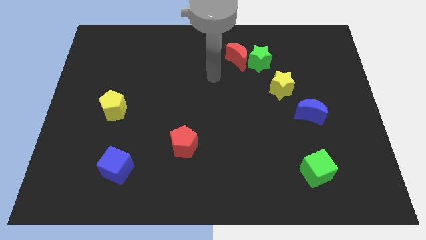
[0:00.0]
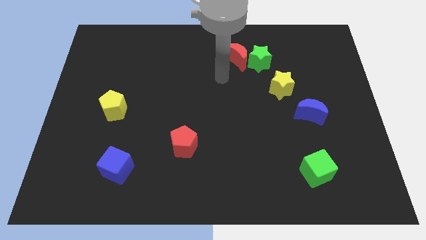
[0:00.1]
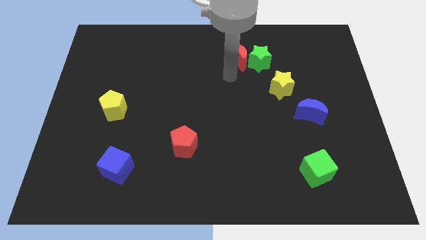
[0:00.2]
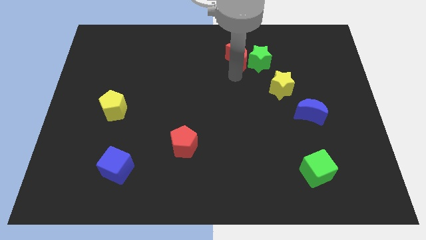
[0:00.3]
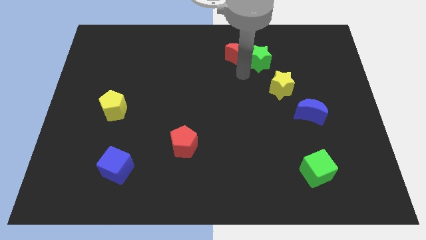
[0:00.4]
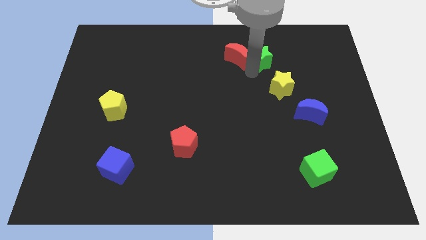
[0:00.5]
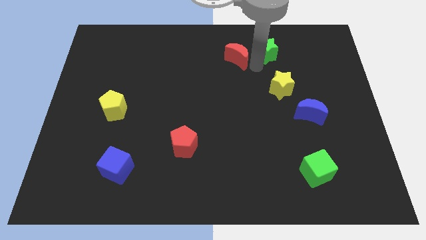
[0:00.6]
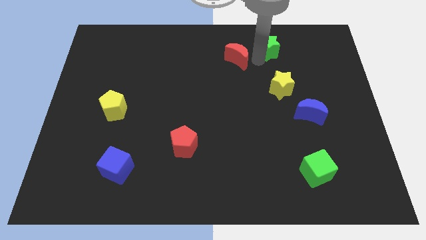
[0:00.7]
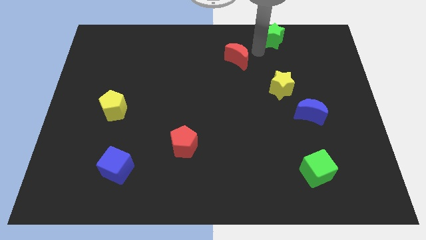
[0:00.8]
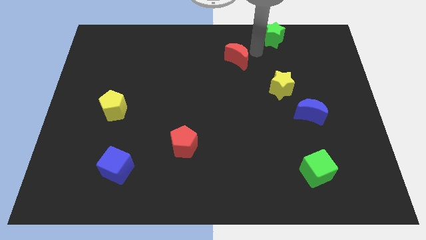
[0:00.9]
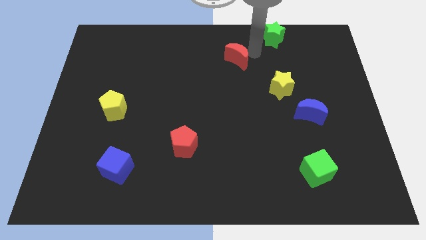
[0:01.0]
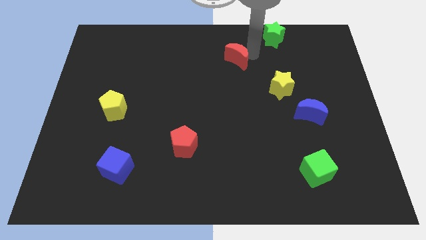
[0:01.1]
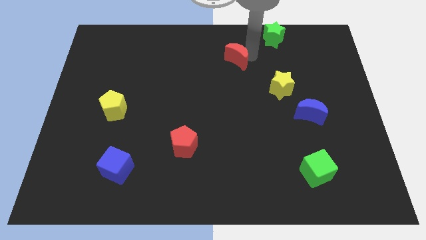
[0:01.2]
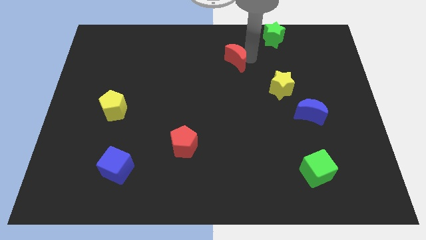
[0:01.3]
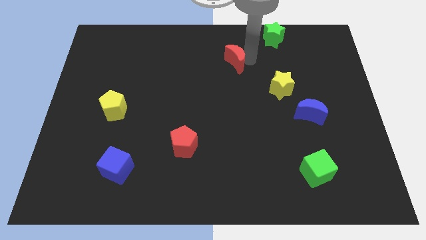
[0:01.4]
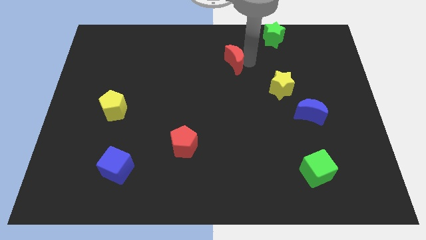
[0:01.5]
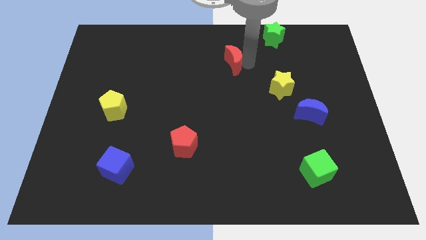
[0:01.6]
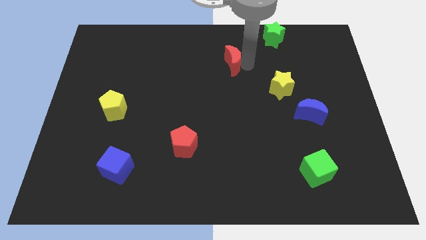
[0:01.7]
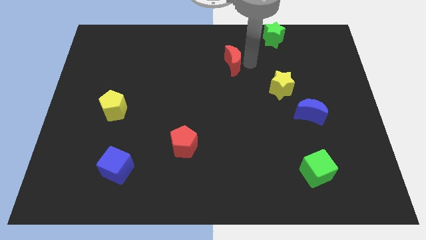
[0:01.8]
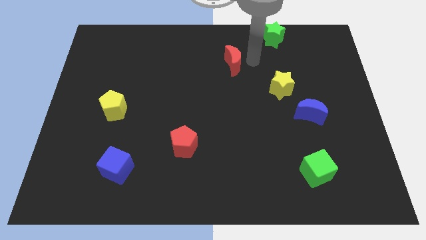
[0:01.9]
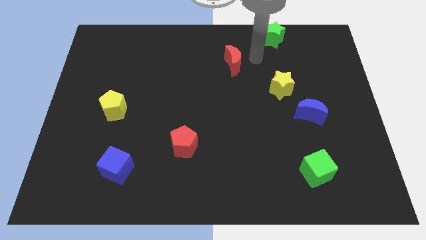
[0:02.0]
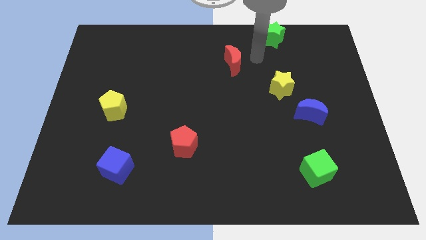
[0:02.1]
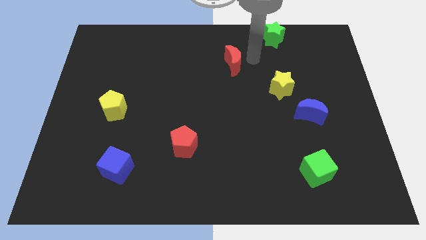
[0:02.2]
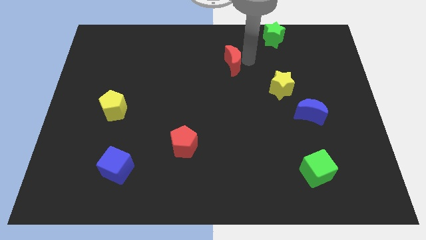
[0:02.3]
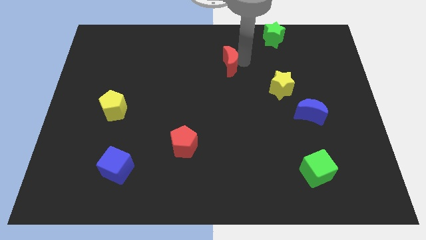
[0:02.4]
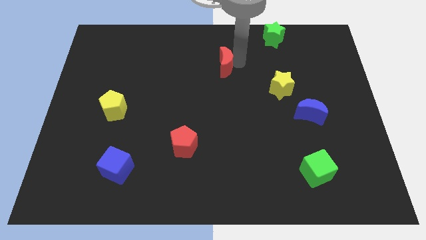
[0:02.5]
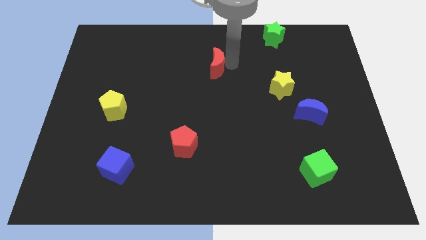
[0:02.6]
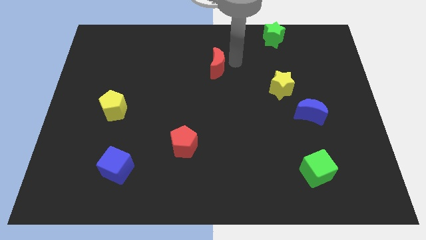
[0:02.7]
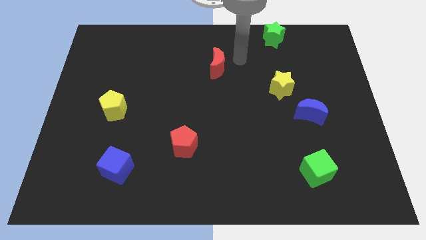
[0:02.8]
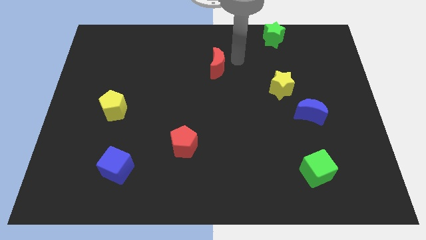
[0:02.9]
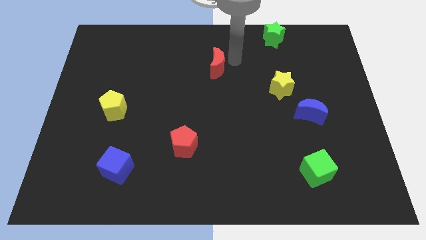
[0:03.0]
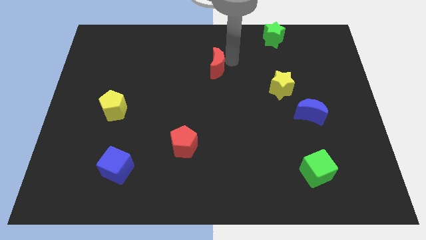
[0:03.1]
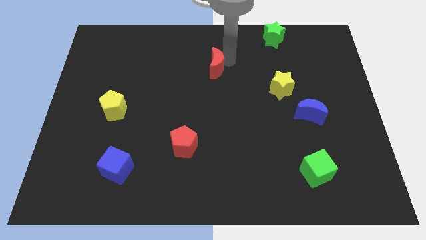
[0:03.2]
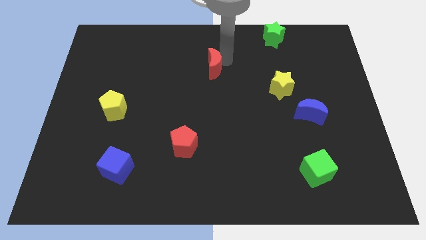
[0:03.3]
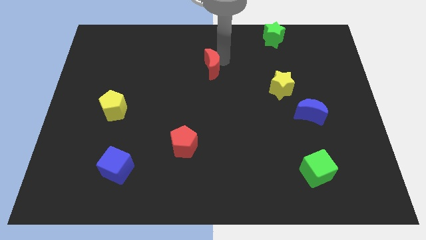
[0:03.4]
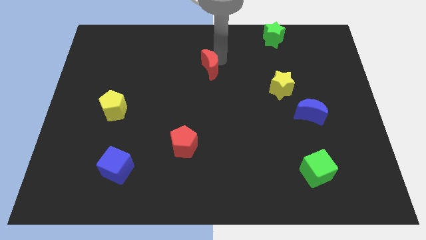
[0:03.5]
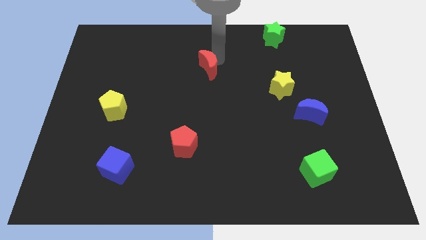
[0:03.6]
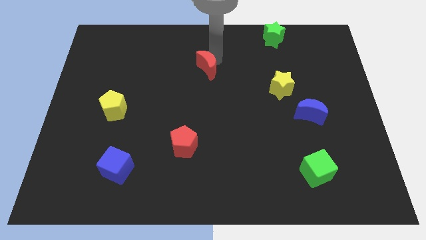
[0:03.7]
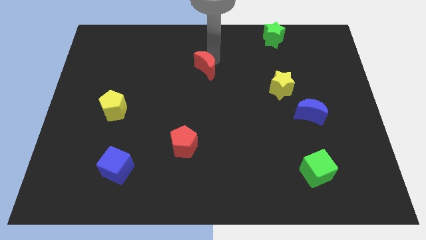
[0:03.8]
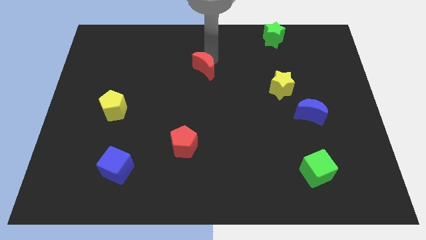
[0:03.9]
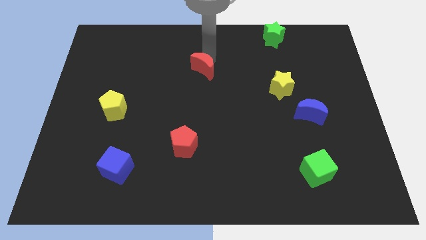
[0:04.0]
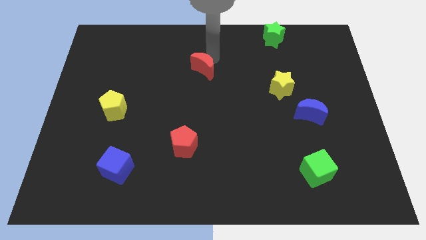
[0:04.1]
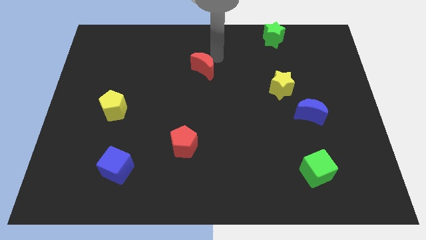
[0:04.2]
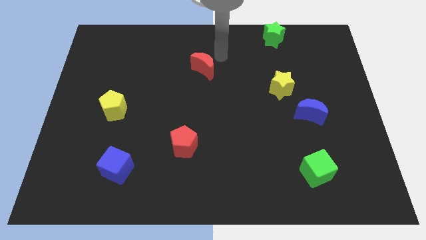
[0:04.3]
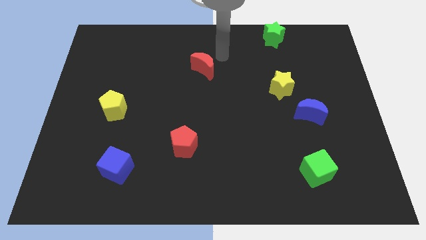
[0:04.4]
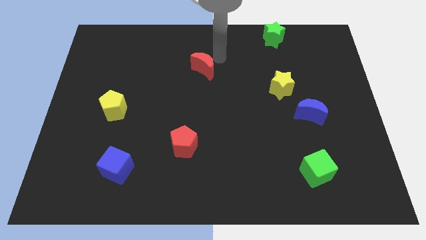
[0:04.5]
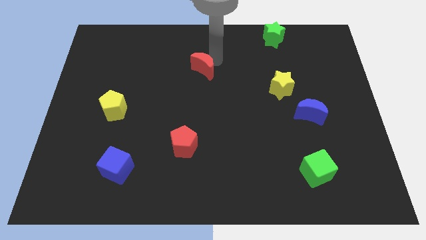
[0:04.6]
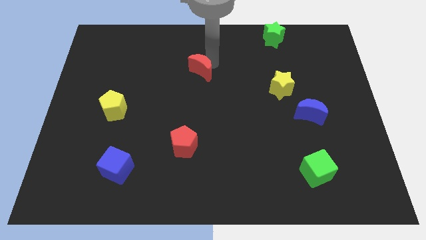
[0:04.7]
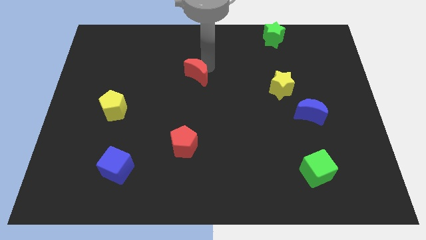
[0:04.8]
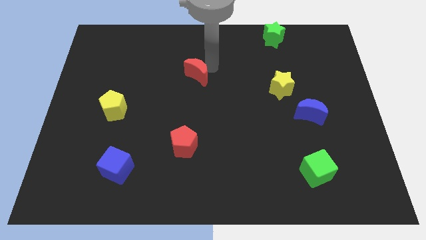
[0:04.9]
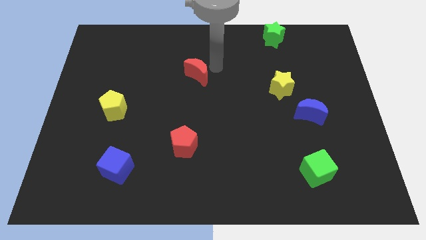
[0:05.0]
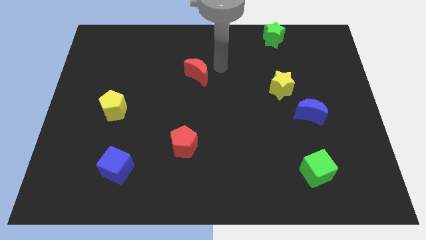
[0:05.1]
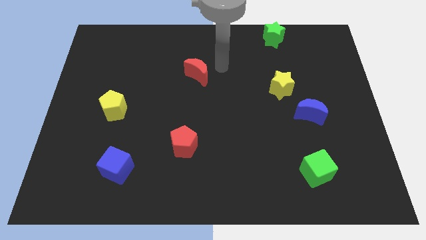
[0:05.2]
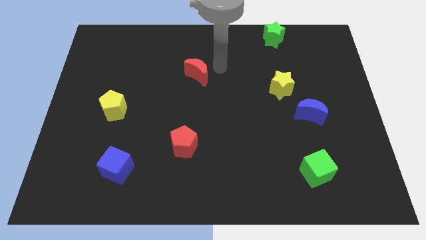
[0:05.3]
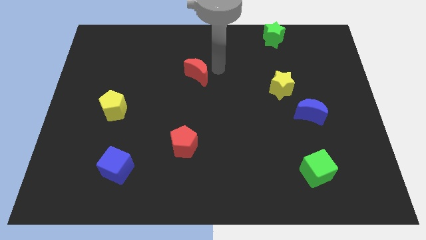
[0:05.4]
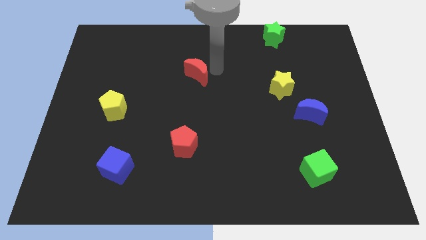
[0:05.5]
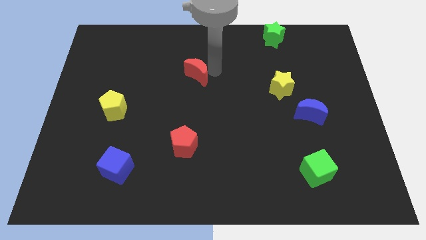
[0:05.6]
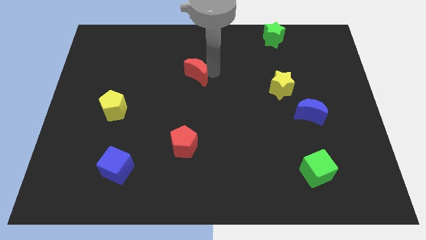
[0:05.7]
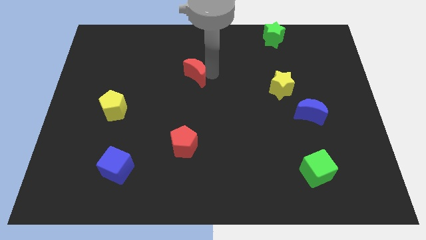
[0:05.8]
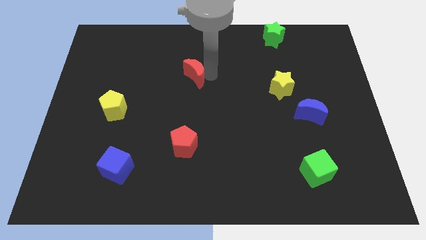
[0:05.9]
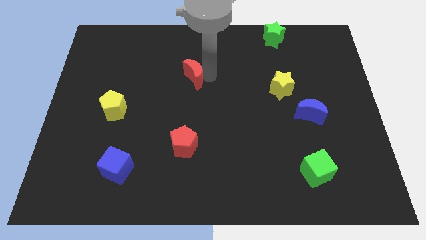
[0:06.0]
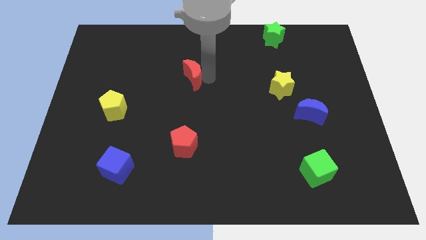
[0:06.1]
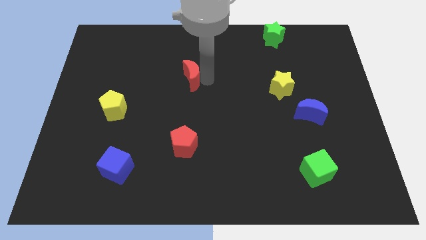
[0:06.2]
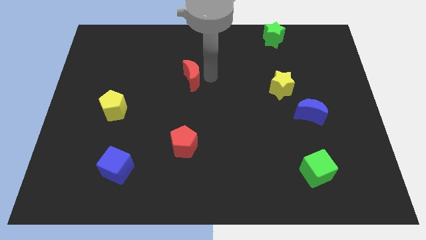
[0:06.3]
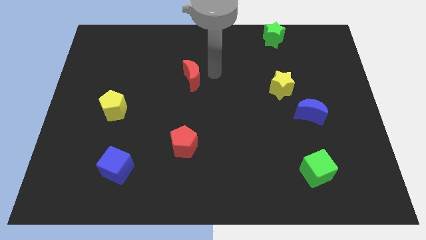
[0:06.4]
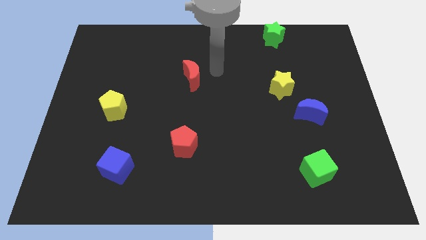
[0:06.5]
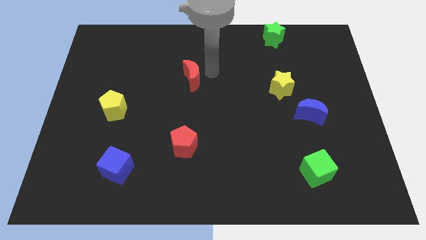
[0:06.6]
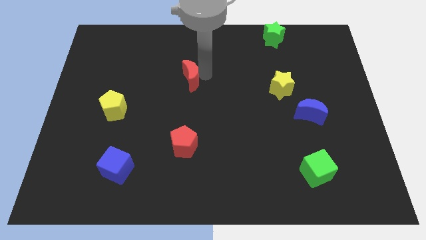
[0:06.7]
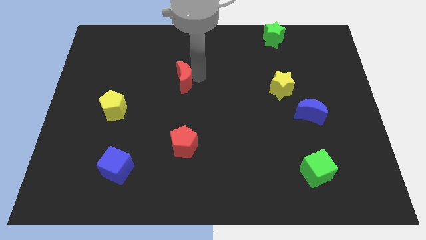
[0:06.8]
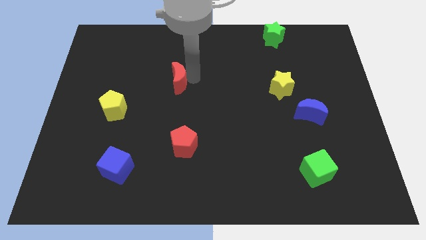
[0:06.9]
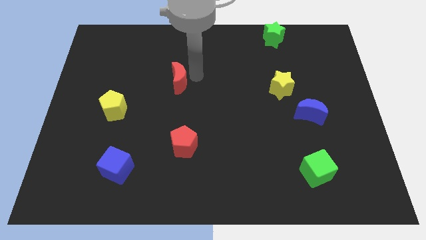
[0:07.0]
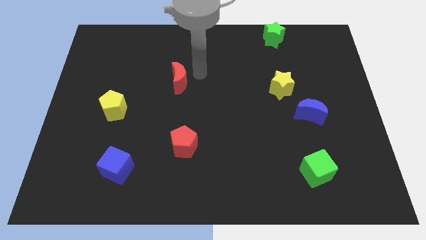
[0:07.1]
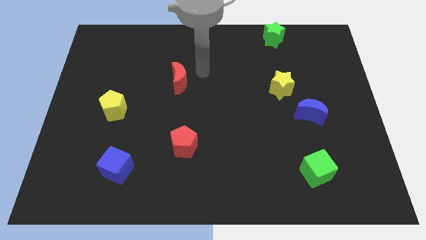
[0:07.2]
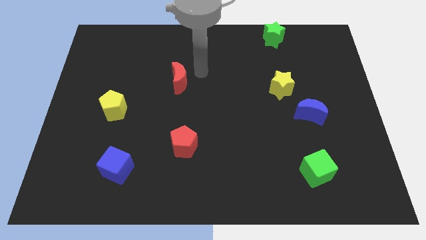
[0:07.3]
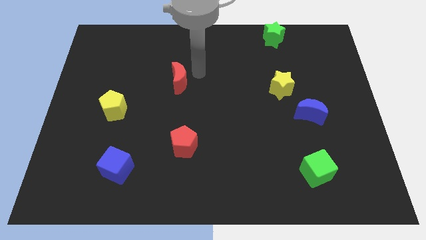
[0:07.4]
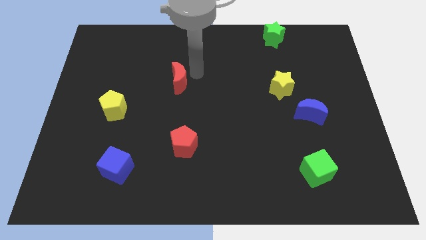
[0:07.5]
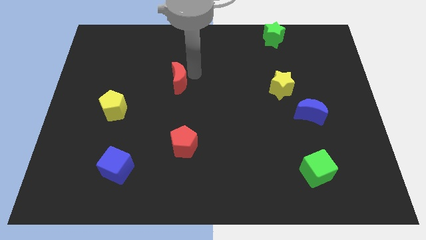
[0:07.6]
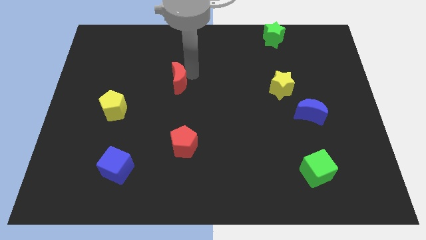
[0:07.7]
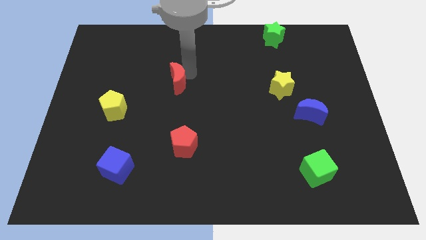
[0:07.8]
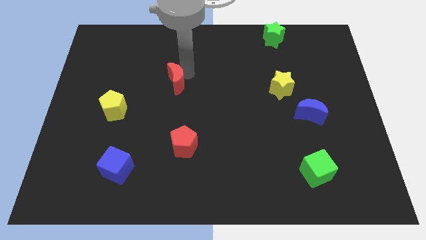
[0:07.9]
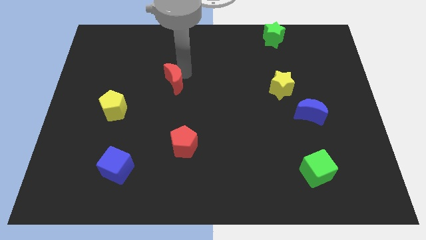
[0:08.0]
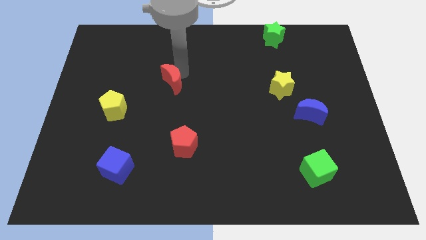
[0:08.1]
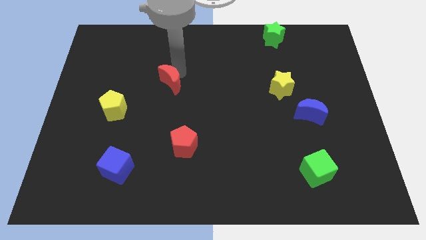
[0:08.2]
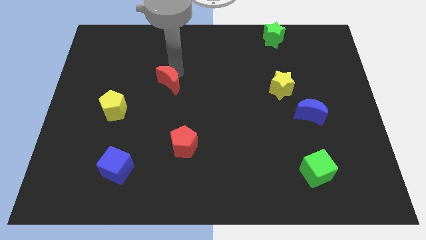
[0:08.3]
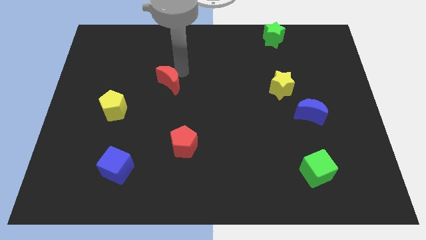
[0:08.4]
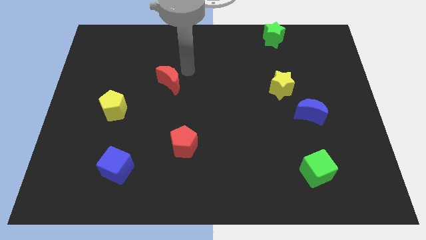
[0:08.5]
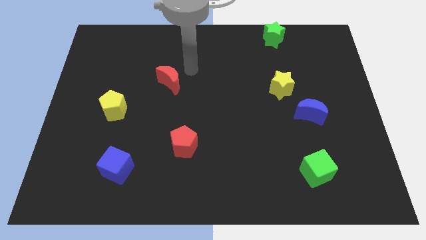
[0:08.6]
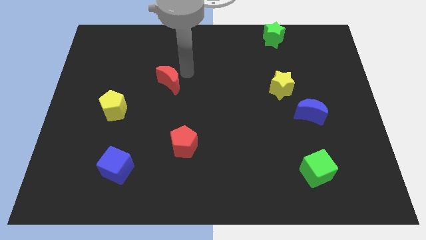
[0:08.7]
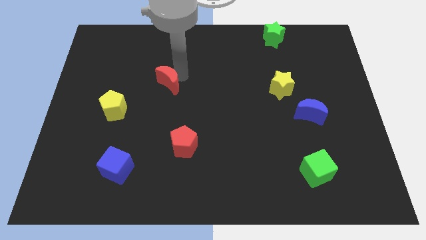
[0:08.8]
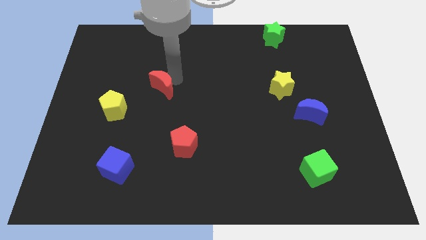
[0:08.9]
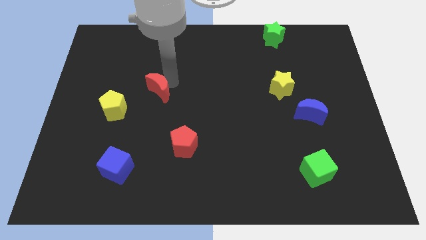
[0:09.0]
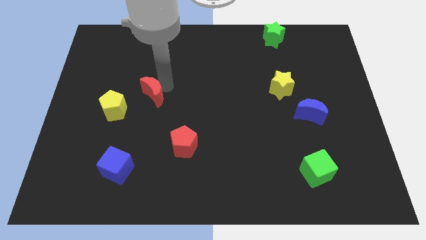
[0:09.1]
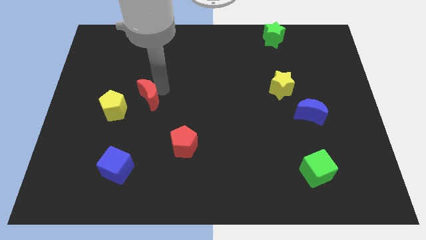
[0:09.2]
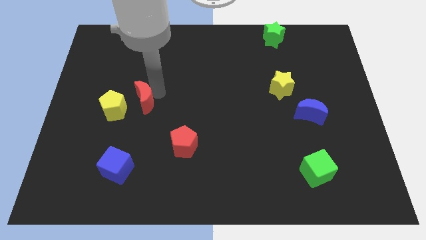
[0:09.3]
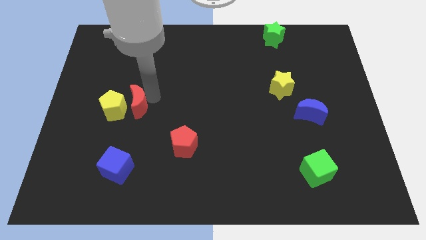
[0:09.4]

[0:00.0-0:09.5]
move the red moon close to the yellow pentagon
